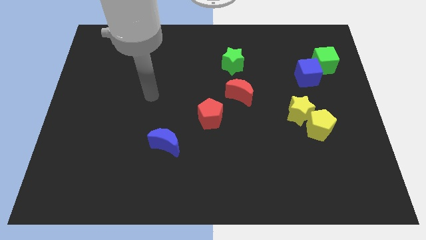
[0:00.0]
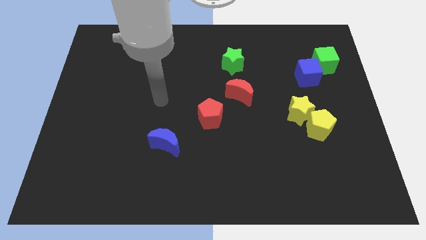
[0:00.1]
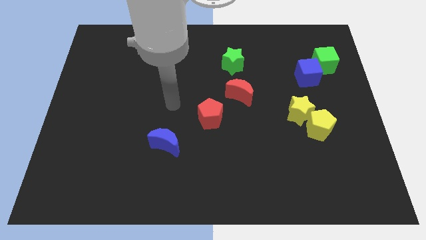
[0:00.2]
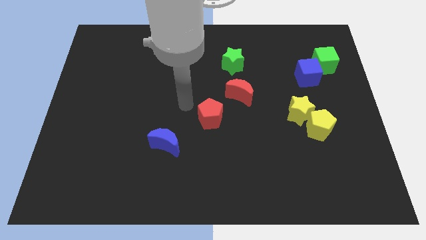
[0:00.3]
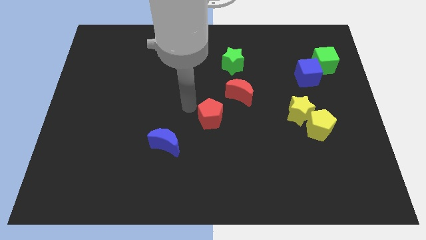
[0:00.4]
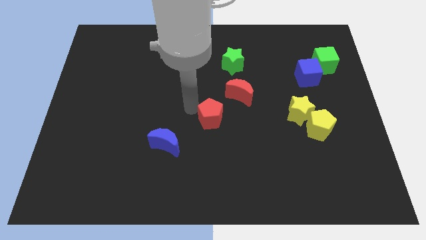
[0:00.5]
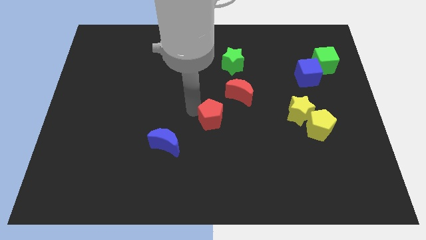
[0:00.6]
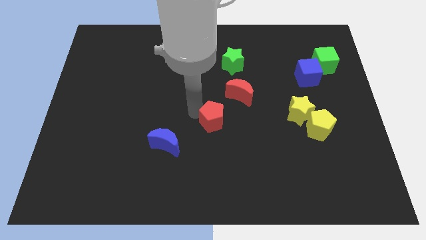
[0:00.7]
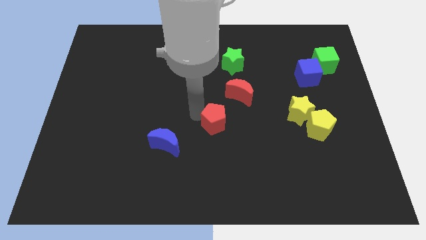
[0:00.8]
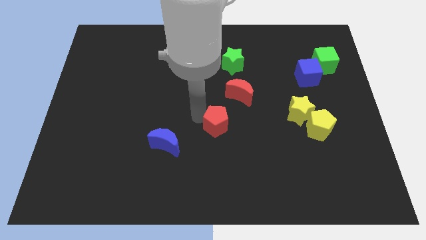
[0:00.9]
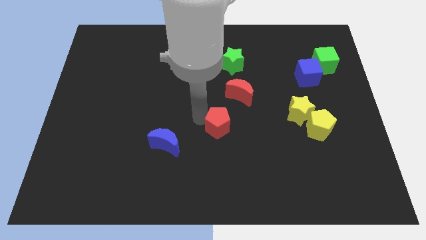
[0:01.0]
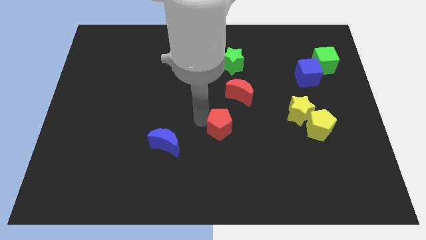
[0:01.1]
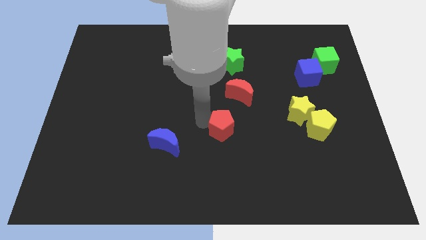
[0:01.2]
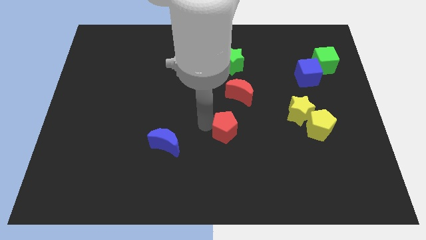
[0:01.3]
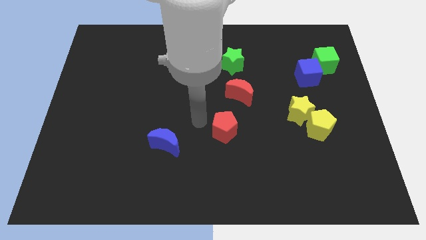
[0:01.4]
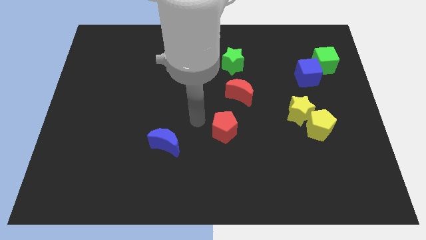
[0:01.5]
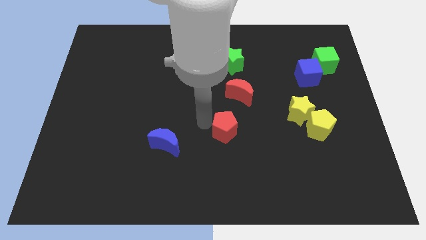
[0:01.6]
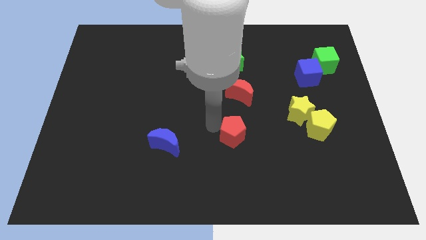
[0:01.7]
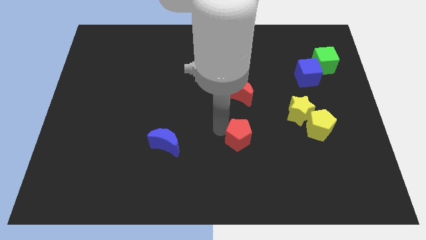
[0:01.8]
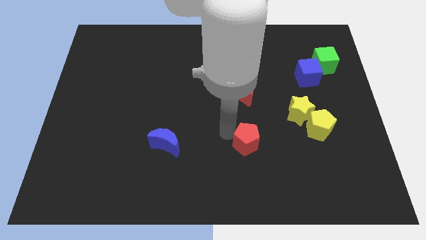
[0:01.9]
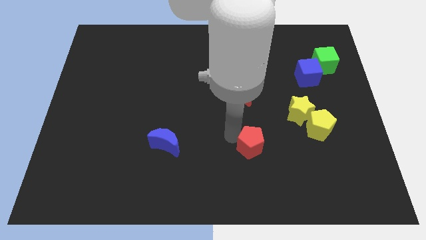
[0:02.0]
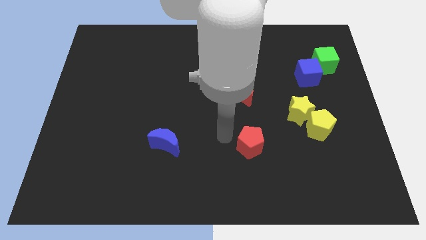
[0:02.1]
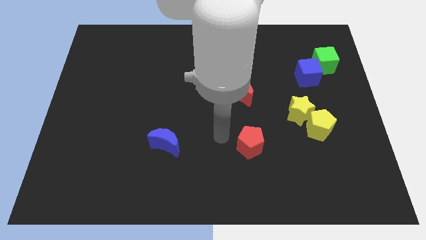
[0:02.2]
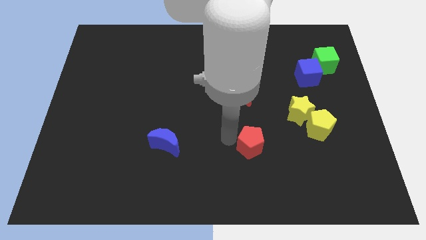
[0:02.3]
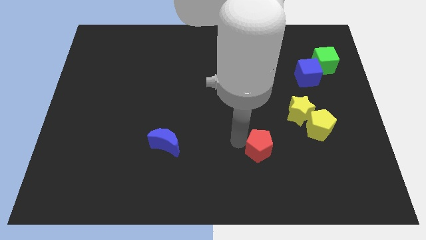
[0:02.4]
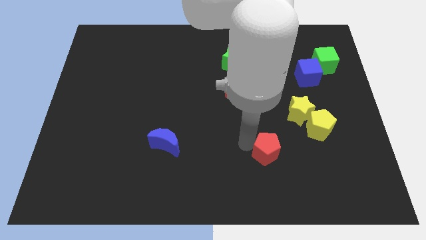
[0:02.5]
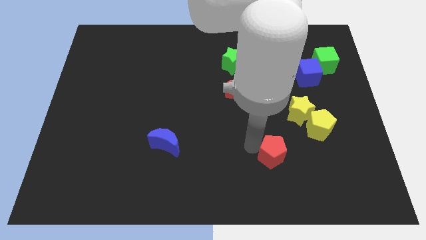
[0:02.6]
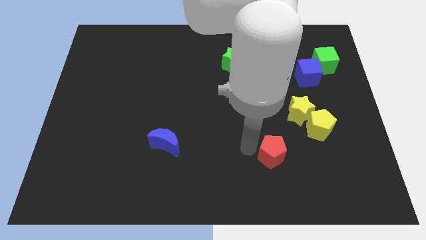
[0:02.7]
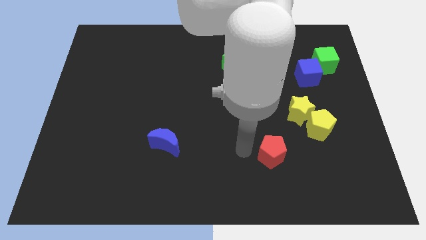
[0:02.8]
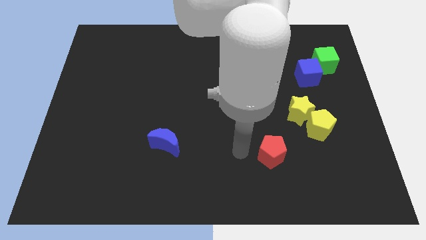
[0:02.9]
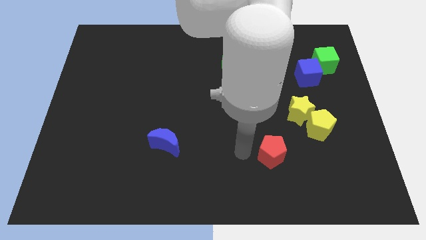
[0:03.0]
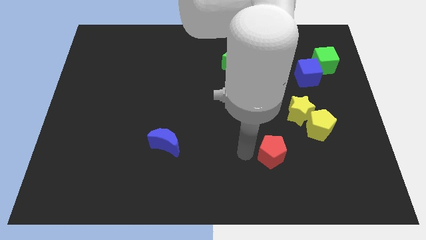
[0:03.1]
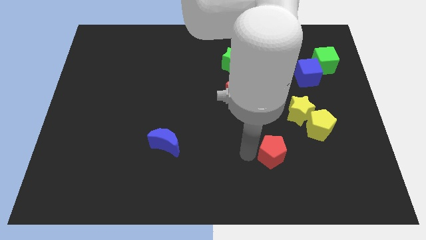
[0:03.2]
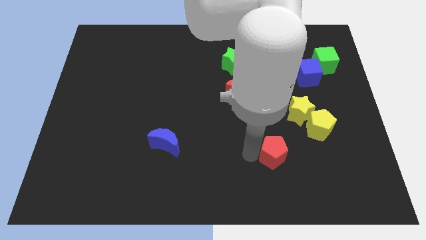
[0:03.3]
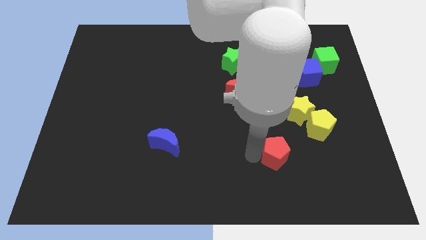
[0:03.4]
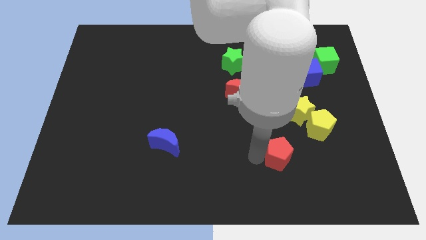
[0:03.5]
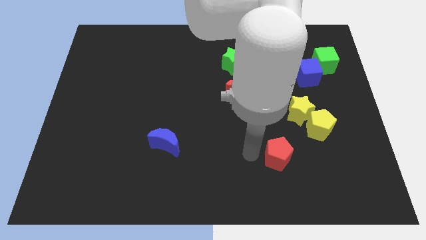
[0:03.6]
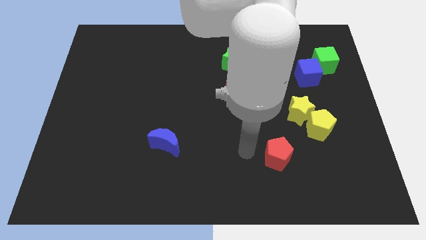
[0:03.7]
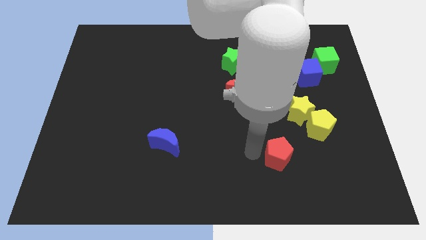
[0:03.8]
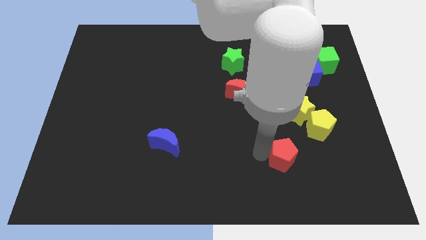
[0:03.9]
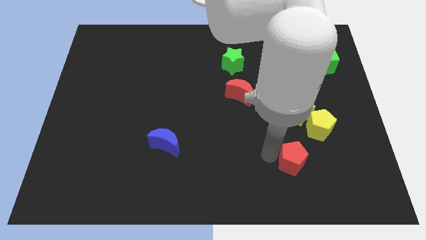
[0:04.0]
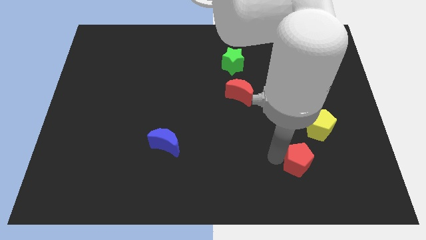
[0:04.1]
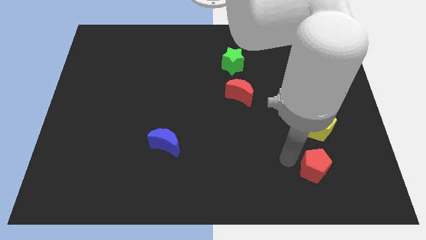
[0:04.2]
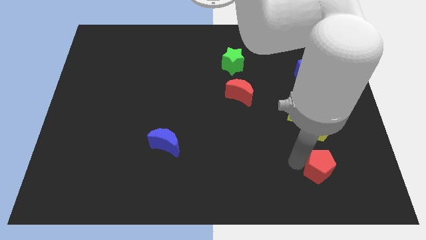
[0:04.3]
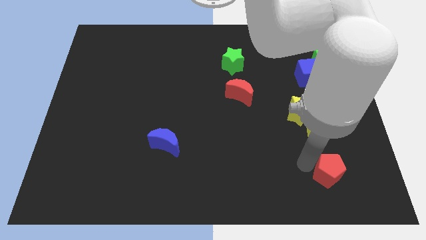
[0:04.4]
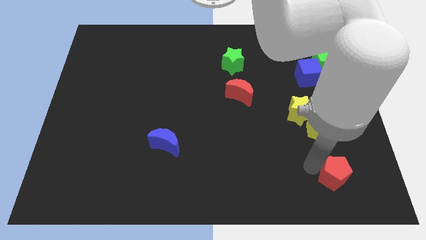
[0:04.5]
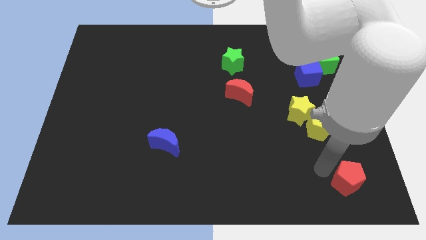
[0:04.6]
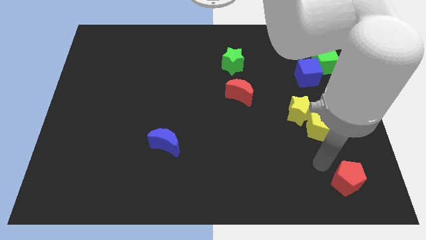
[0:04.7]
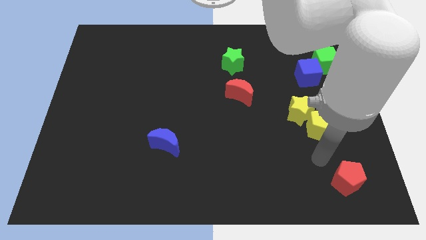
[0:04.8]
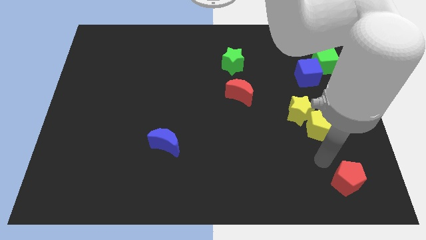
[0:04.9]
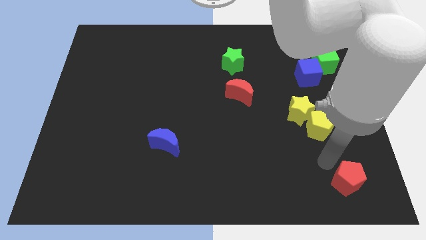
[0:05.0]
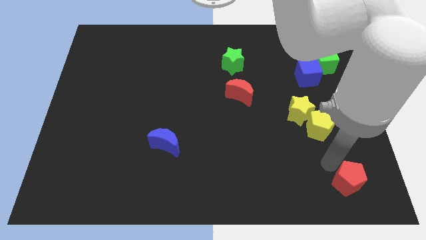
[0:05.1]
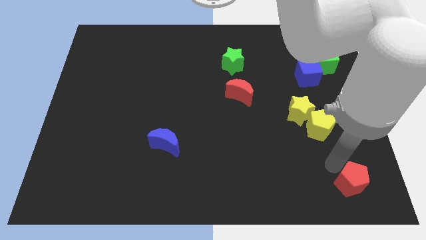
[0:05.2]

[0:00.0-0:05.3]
move the red pentagon to the lower right corner

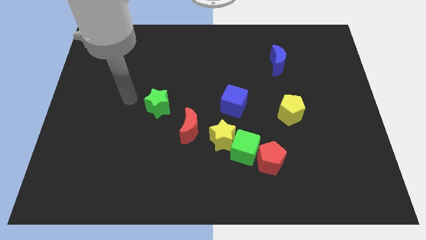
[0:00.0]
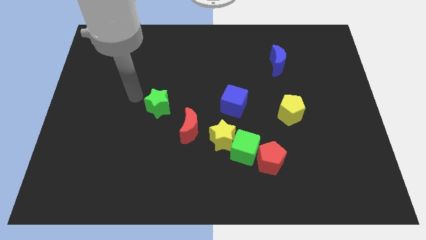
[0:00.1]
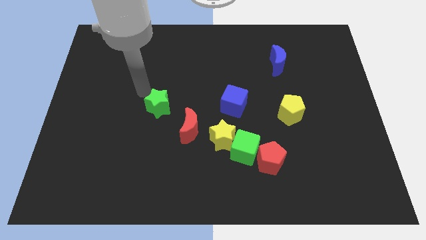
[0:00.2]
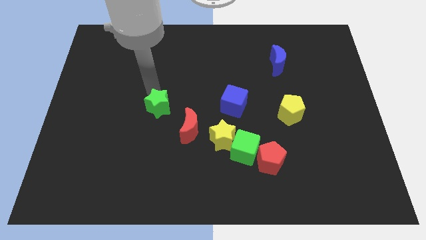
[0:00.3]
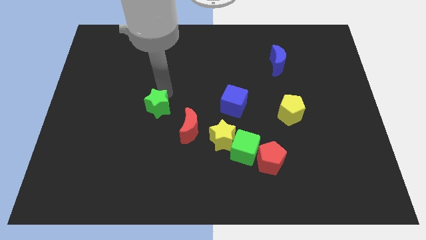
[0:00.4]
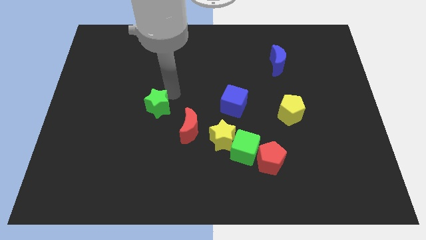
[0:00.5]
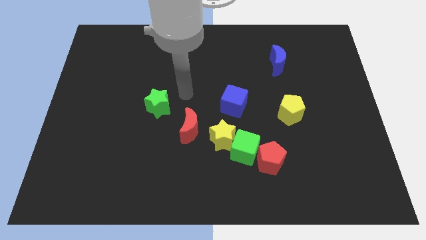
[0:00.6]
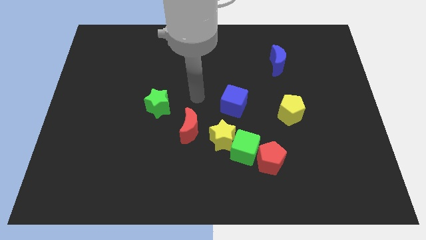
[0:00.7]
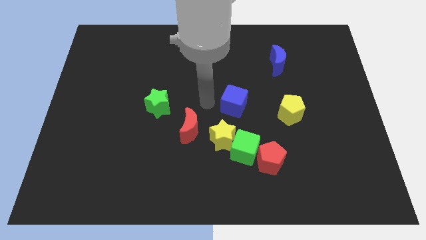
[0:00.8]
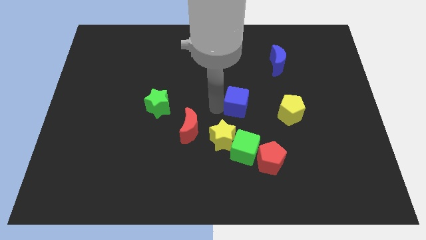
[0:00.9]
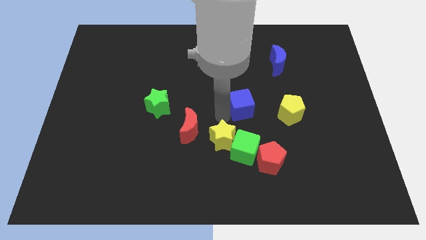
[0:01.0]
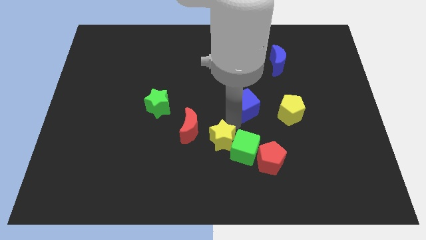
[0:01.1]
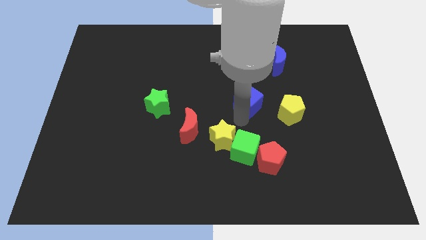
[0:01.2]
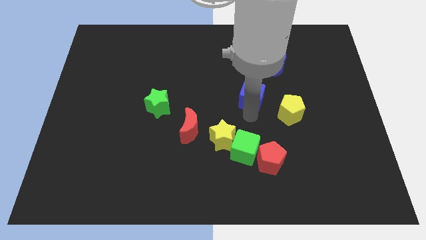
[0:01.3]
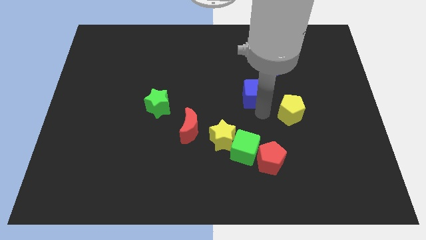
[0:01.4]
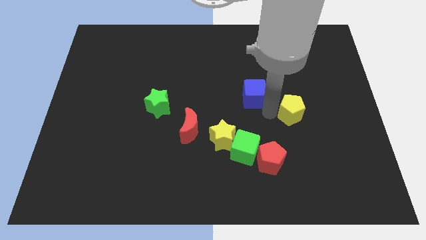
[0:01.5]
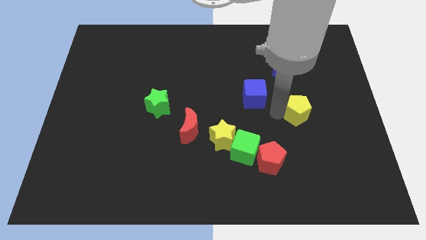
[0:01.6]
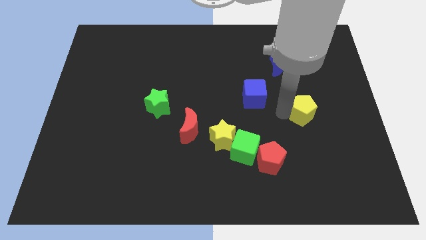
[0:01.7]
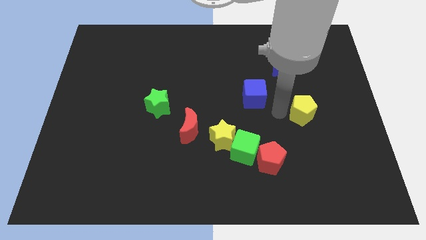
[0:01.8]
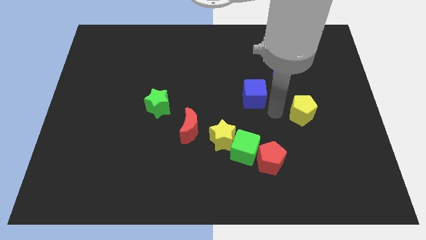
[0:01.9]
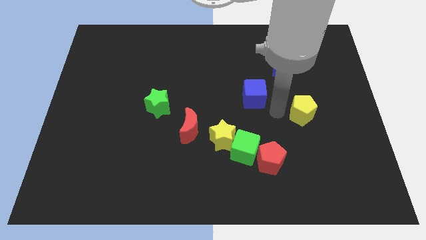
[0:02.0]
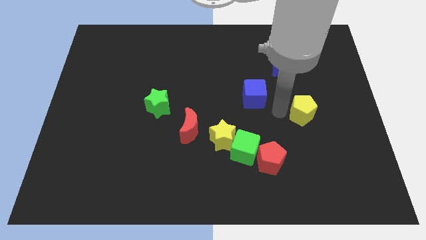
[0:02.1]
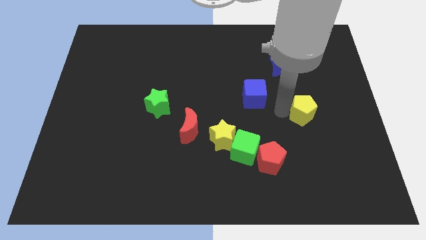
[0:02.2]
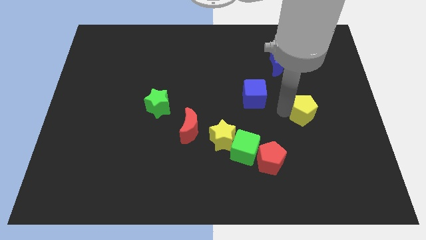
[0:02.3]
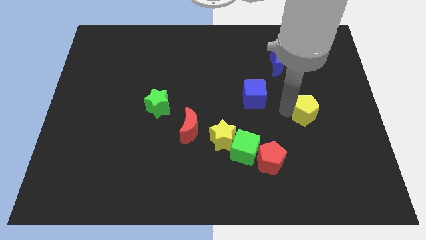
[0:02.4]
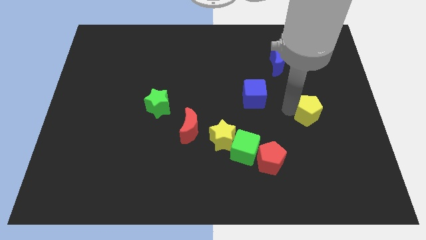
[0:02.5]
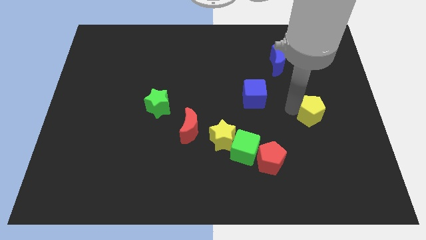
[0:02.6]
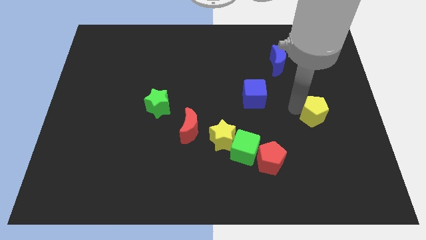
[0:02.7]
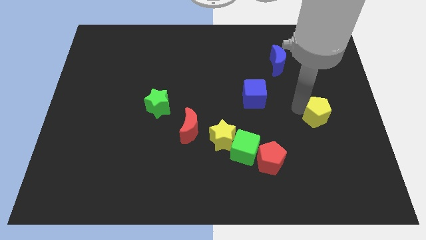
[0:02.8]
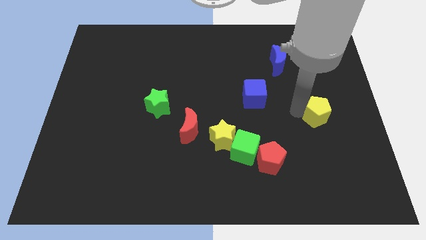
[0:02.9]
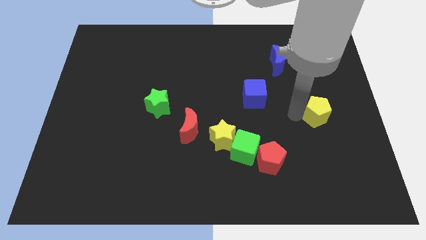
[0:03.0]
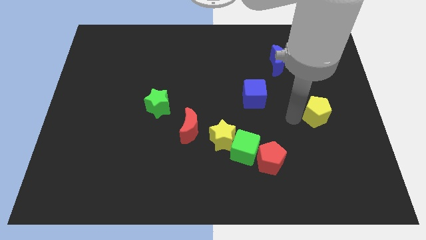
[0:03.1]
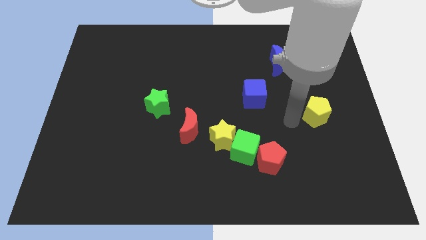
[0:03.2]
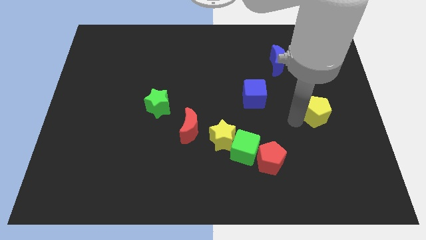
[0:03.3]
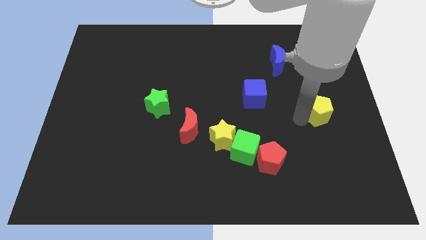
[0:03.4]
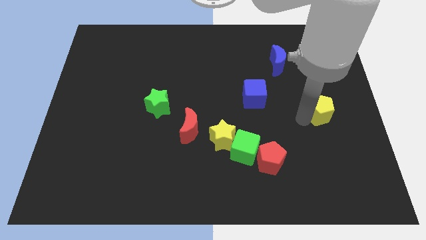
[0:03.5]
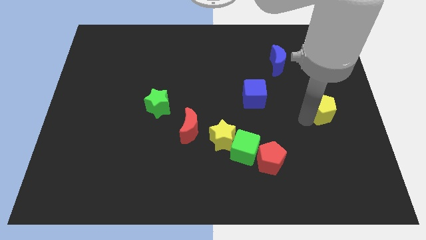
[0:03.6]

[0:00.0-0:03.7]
push the yellow pentagon to the right side
